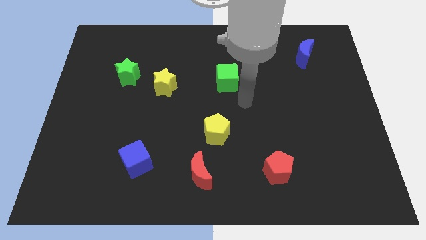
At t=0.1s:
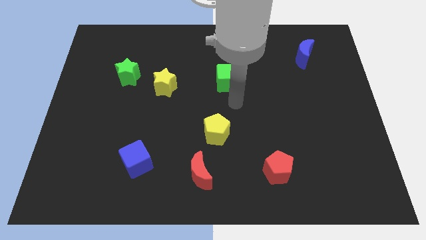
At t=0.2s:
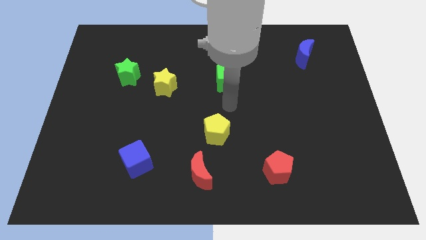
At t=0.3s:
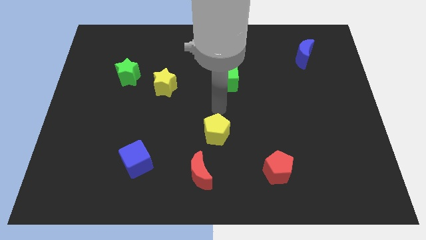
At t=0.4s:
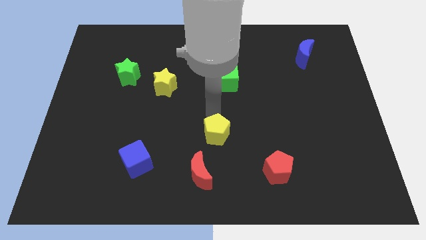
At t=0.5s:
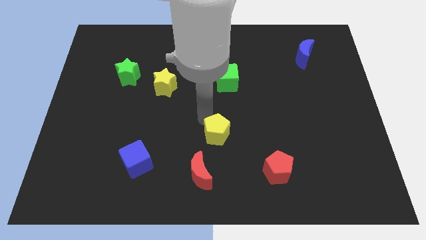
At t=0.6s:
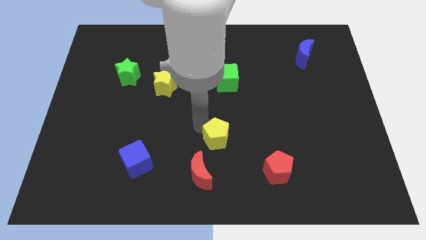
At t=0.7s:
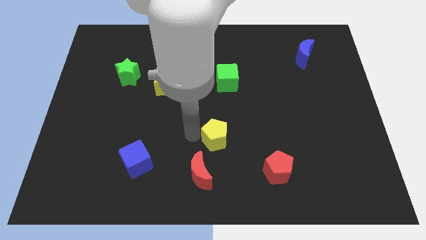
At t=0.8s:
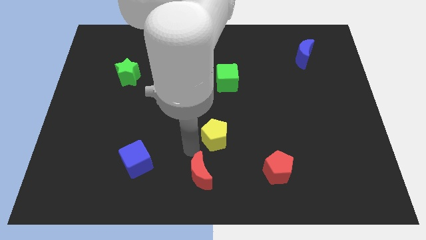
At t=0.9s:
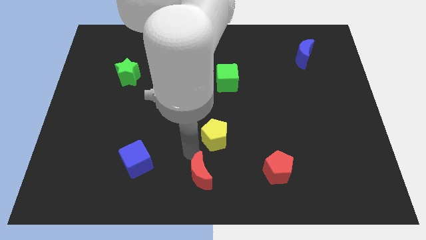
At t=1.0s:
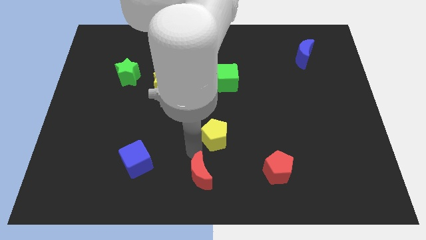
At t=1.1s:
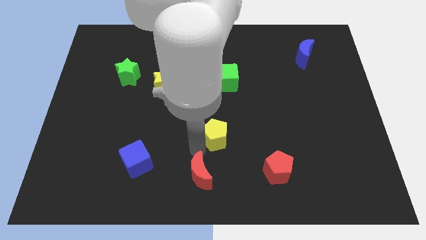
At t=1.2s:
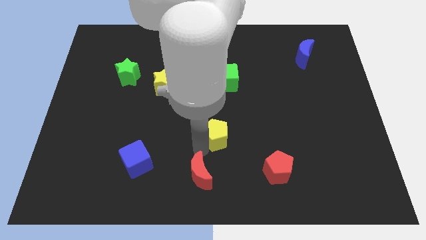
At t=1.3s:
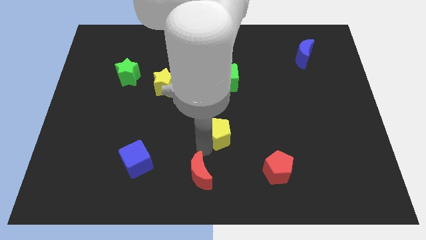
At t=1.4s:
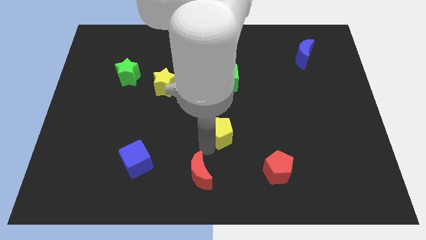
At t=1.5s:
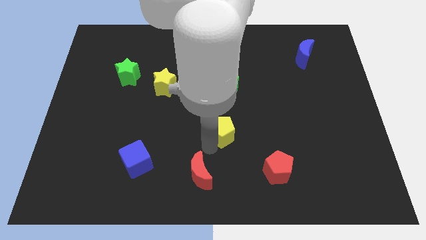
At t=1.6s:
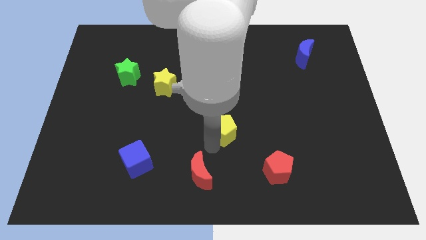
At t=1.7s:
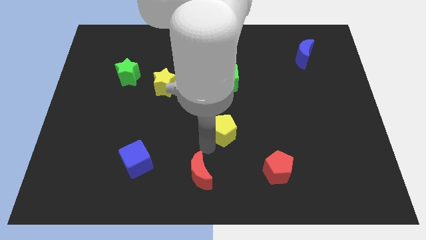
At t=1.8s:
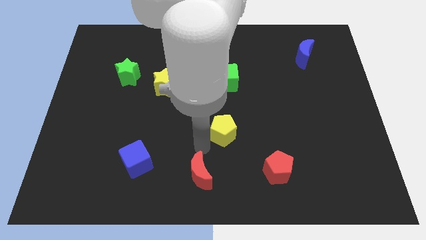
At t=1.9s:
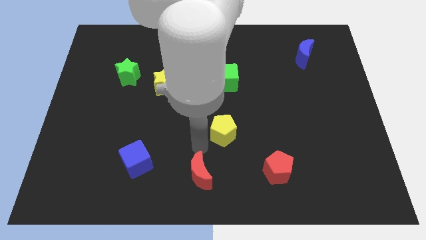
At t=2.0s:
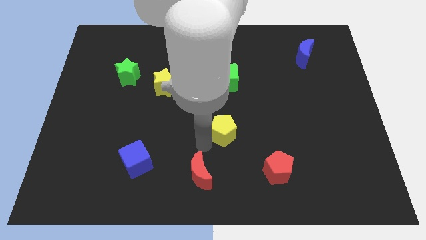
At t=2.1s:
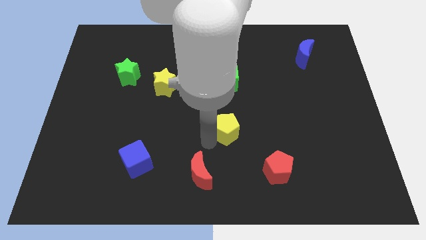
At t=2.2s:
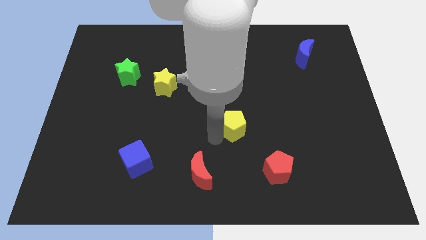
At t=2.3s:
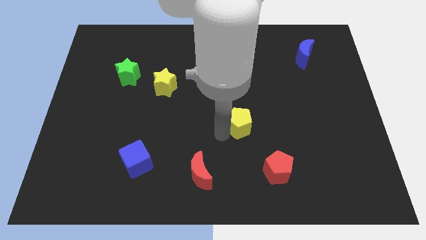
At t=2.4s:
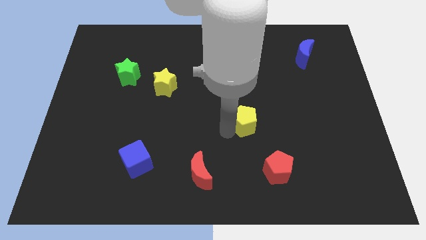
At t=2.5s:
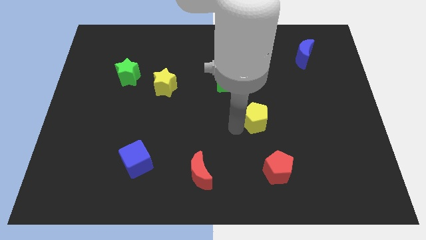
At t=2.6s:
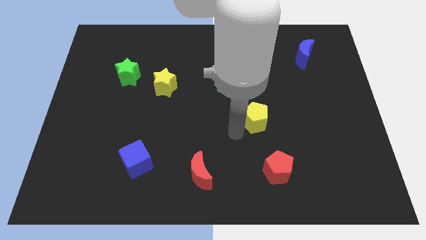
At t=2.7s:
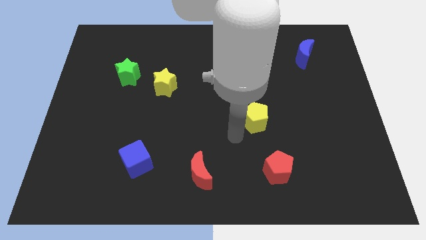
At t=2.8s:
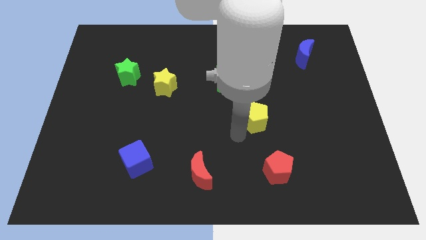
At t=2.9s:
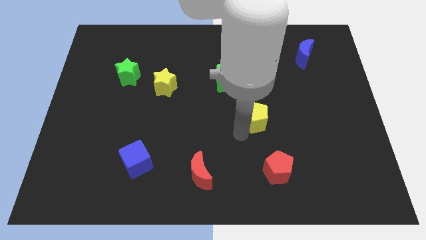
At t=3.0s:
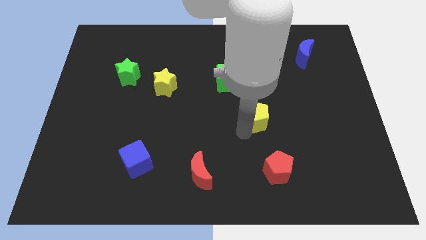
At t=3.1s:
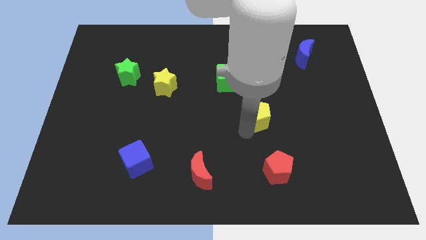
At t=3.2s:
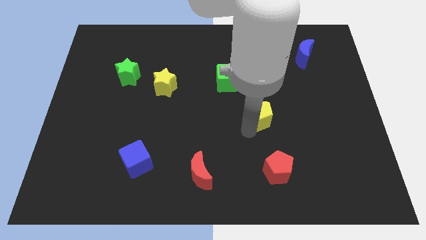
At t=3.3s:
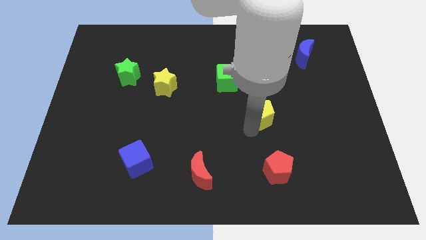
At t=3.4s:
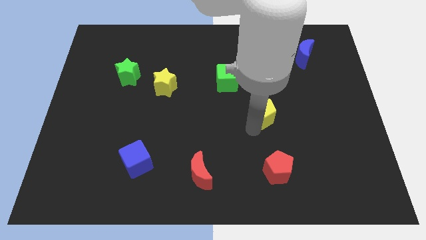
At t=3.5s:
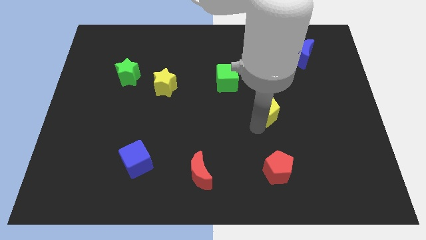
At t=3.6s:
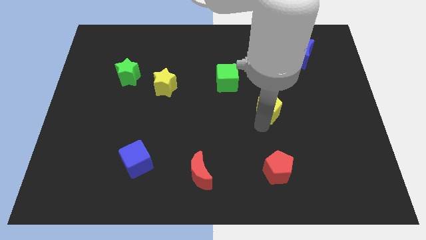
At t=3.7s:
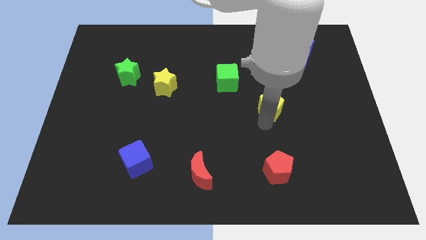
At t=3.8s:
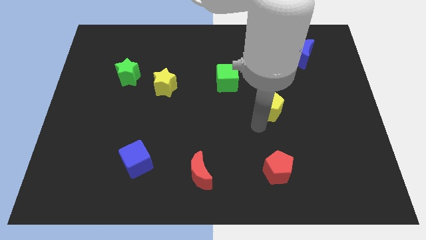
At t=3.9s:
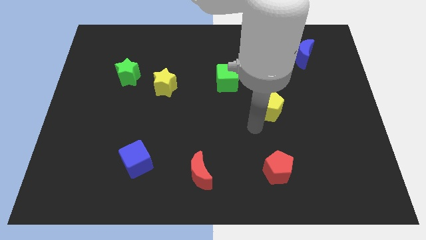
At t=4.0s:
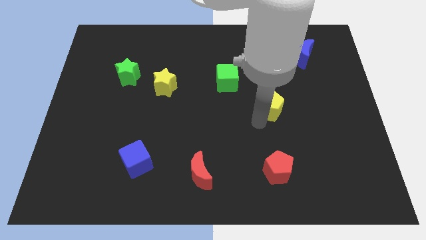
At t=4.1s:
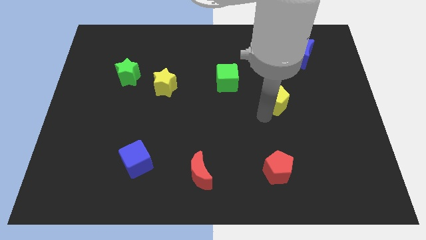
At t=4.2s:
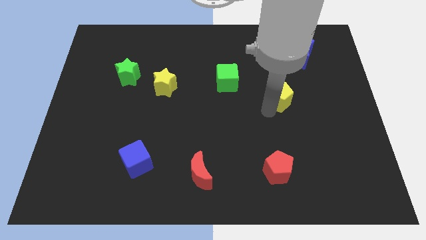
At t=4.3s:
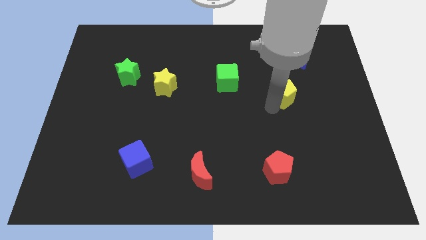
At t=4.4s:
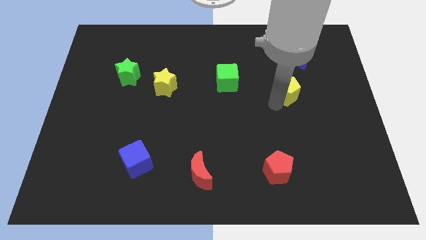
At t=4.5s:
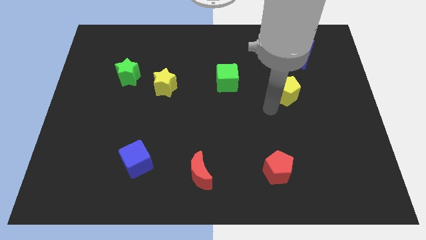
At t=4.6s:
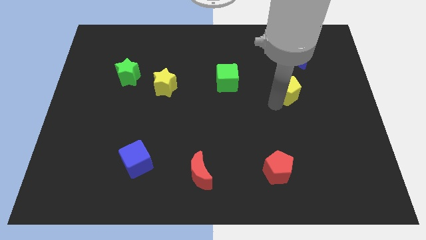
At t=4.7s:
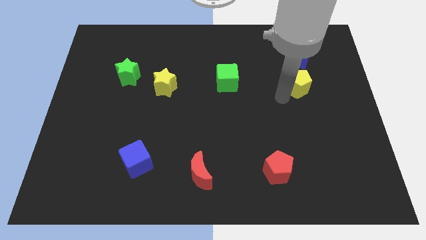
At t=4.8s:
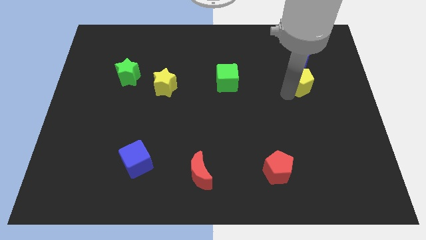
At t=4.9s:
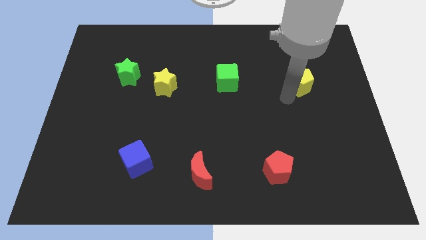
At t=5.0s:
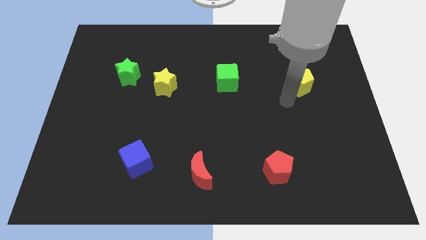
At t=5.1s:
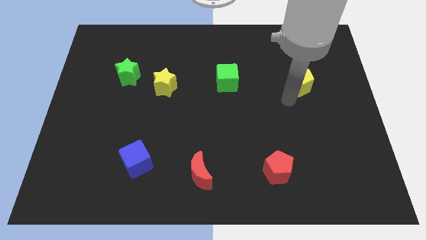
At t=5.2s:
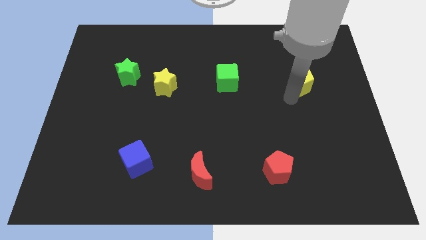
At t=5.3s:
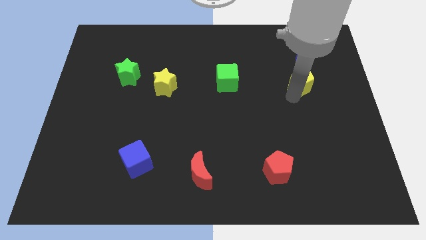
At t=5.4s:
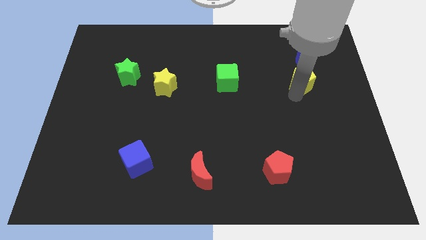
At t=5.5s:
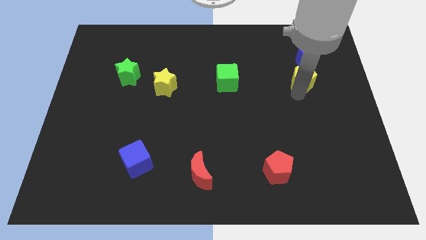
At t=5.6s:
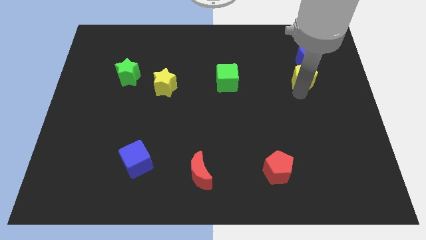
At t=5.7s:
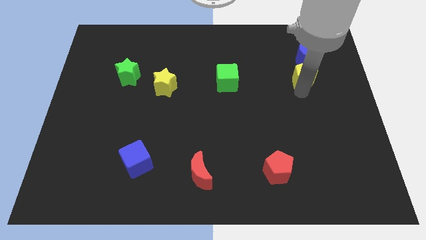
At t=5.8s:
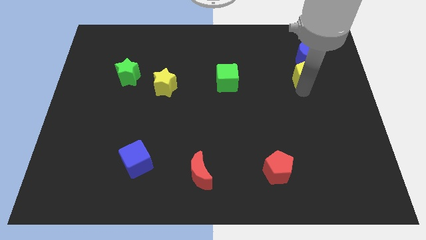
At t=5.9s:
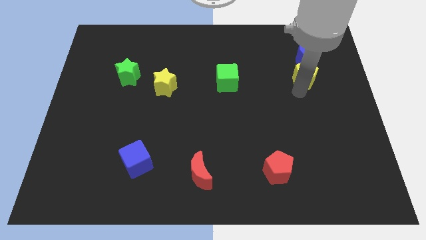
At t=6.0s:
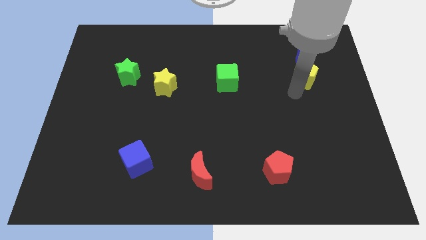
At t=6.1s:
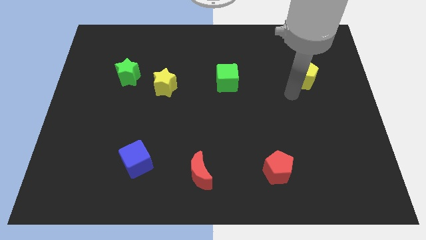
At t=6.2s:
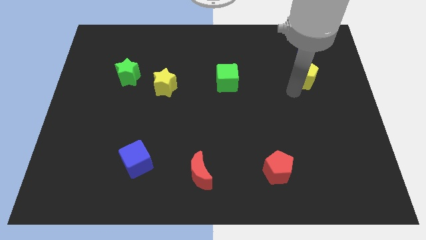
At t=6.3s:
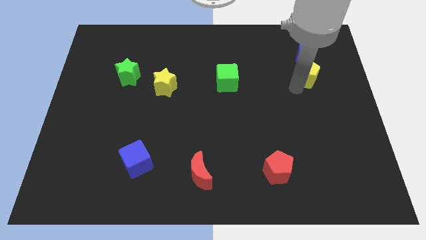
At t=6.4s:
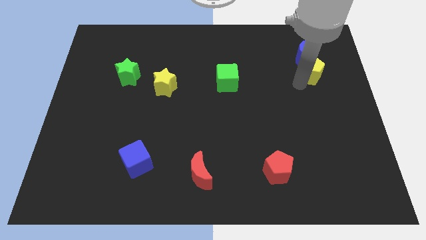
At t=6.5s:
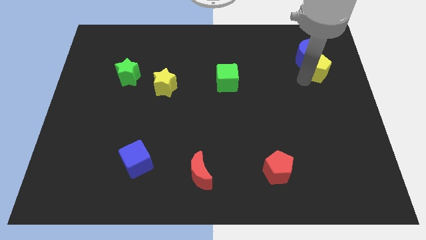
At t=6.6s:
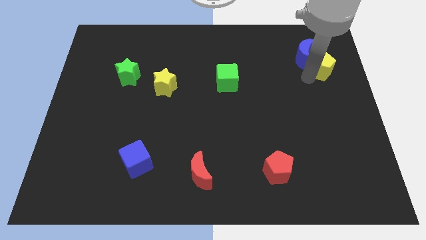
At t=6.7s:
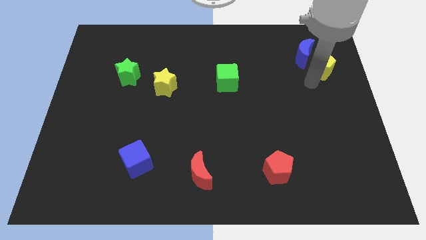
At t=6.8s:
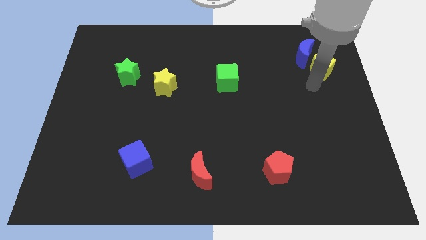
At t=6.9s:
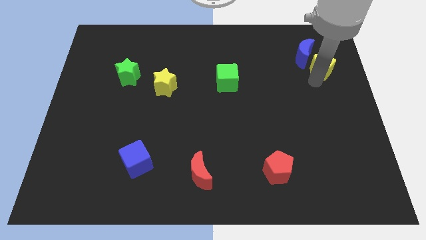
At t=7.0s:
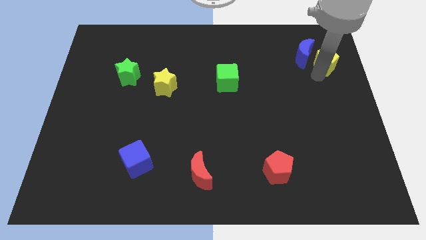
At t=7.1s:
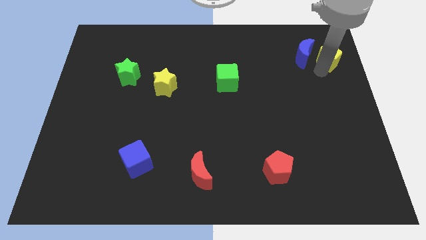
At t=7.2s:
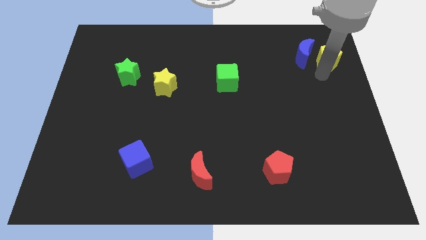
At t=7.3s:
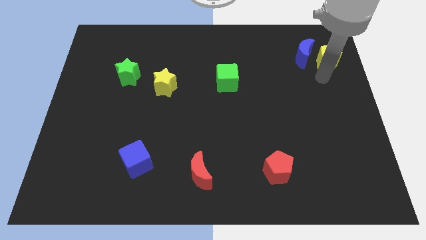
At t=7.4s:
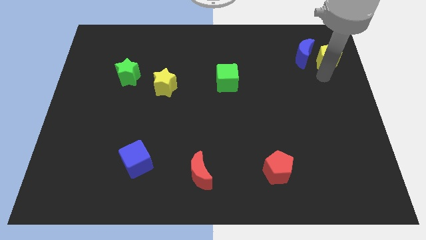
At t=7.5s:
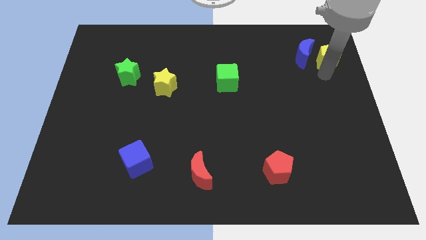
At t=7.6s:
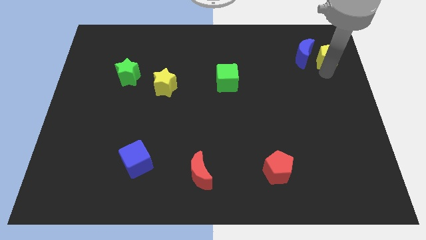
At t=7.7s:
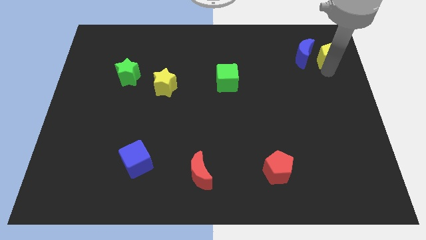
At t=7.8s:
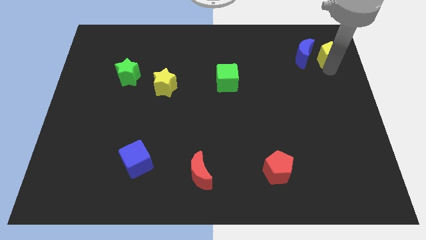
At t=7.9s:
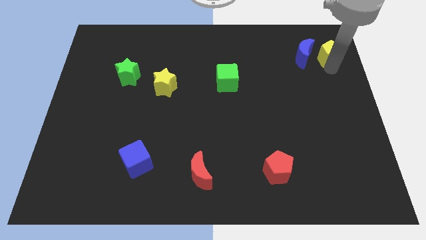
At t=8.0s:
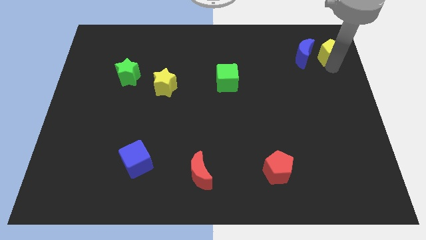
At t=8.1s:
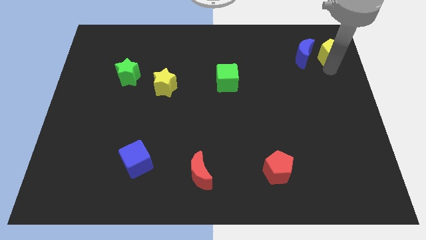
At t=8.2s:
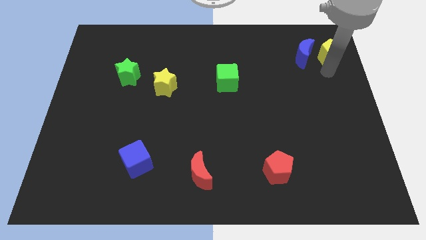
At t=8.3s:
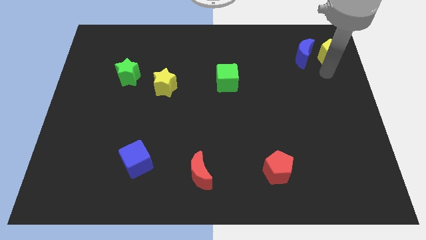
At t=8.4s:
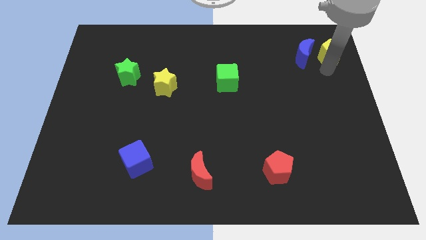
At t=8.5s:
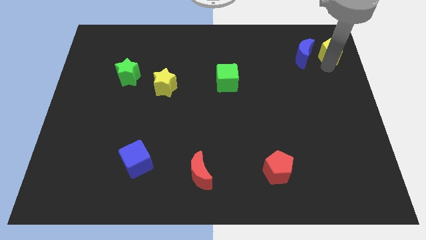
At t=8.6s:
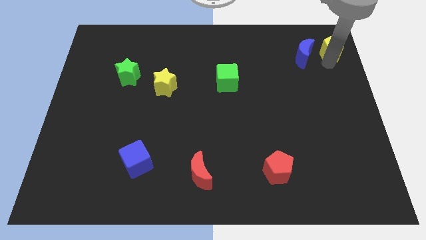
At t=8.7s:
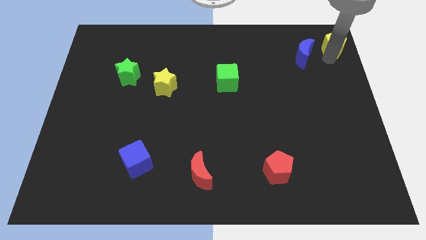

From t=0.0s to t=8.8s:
put the yellow pentagon to the upper right corner
